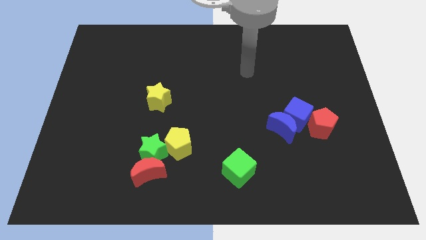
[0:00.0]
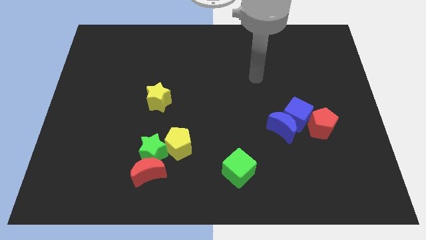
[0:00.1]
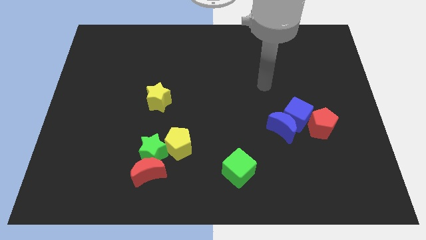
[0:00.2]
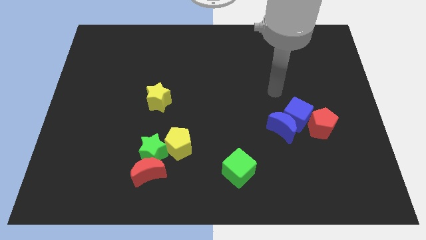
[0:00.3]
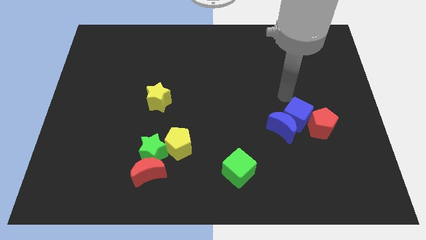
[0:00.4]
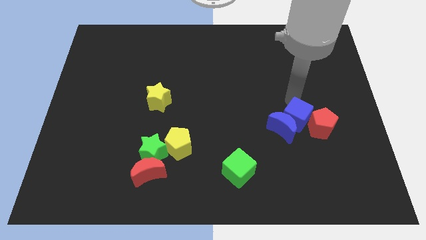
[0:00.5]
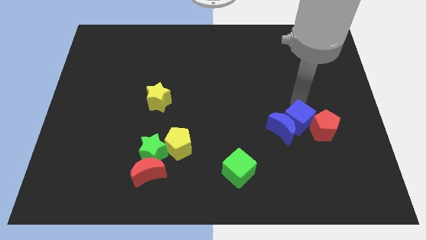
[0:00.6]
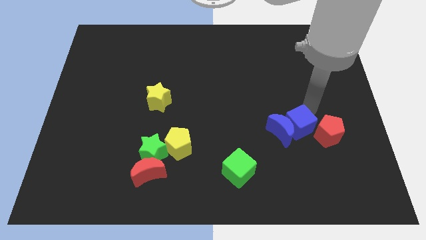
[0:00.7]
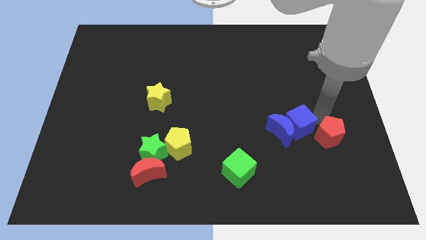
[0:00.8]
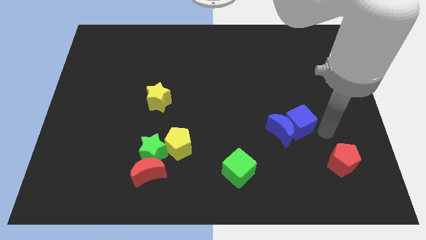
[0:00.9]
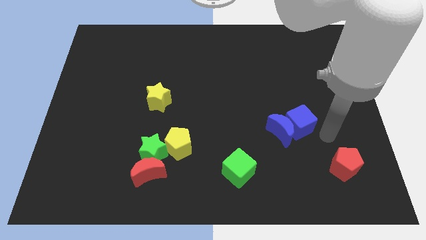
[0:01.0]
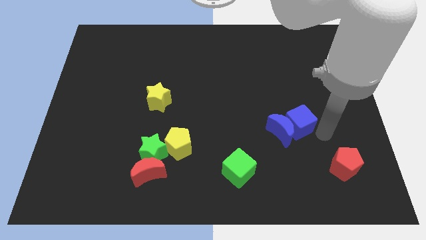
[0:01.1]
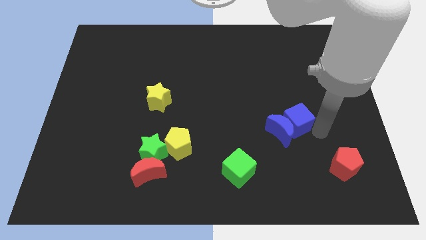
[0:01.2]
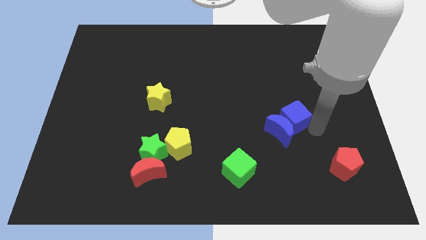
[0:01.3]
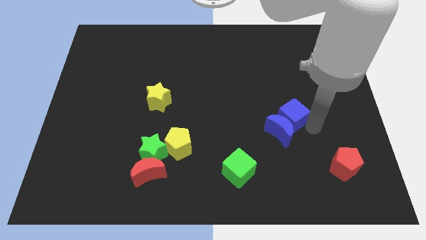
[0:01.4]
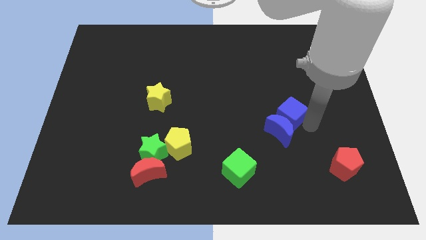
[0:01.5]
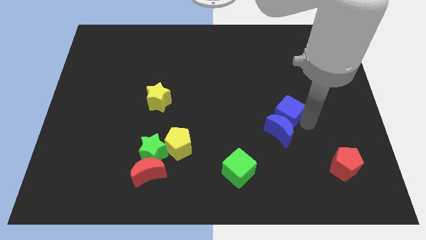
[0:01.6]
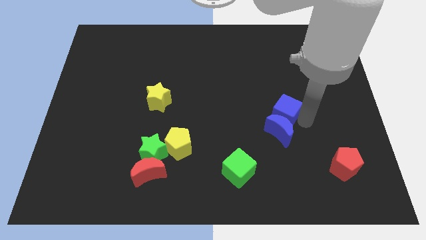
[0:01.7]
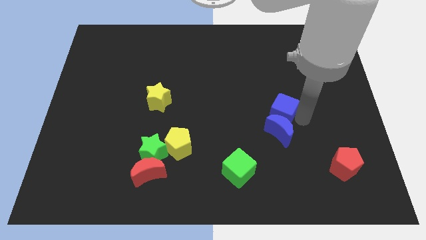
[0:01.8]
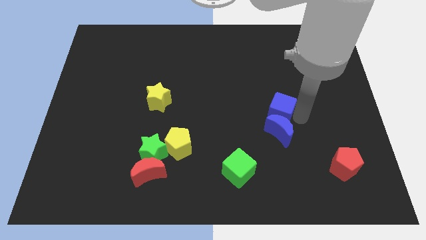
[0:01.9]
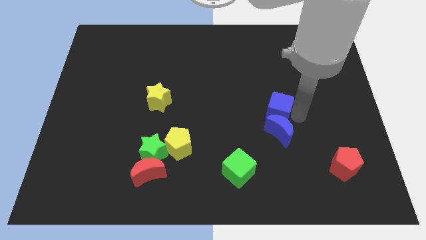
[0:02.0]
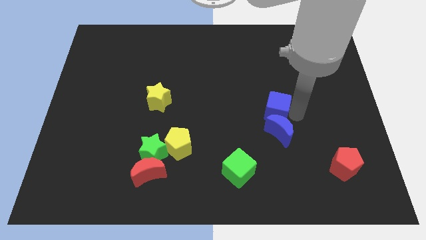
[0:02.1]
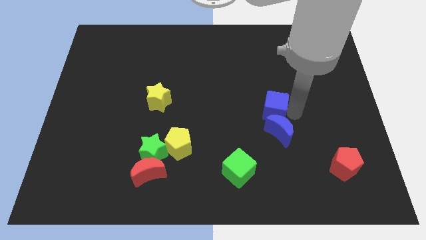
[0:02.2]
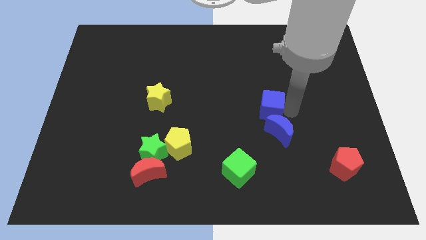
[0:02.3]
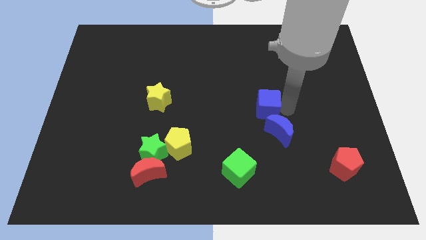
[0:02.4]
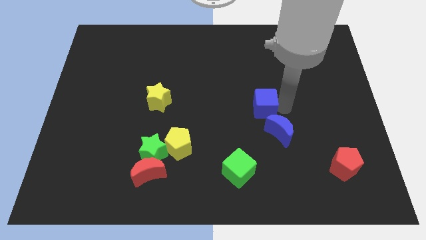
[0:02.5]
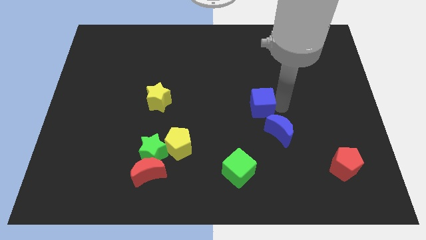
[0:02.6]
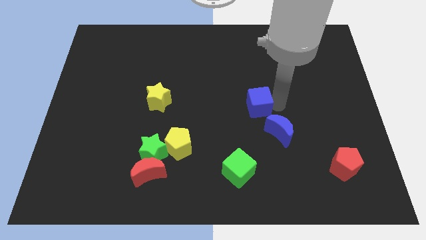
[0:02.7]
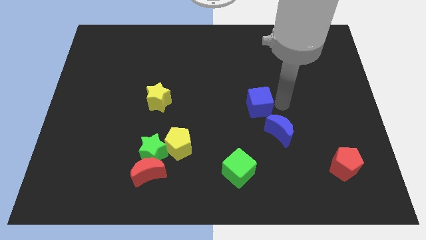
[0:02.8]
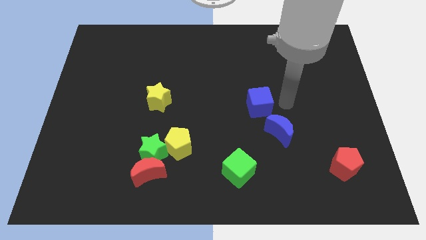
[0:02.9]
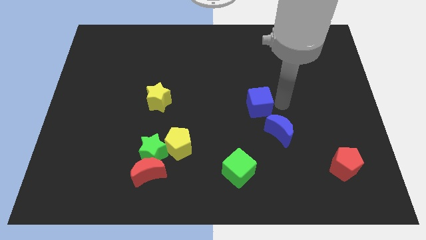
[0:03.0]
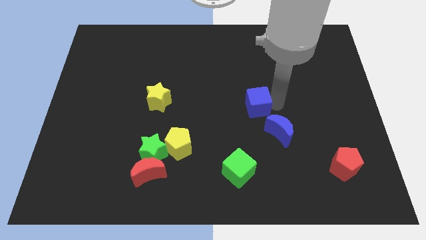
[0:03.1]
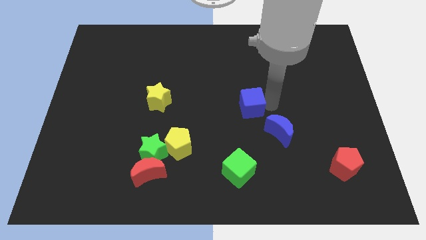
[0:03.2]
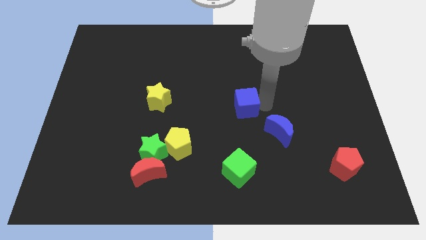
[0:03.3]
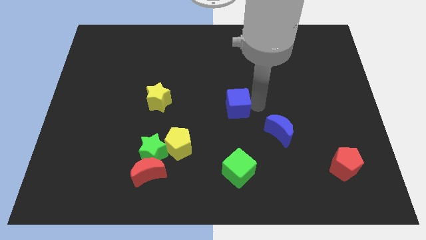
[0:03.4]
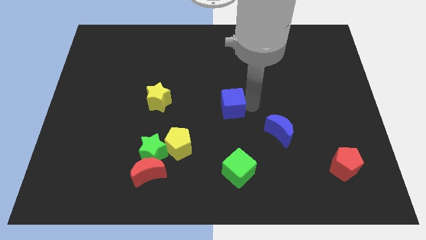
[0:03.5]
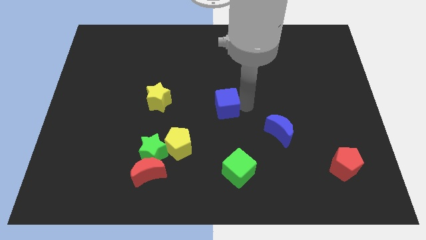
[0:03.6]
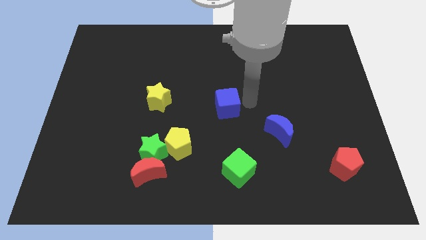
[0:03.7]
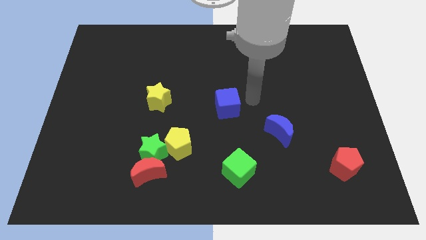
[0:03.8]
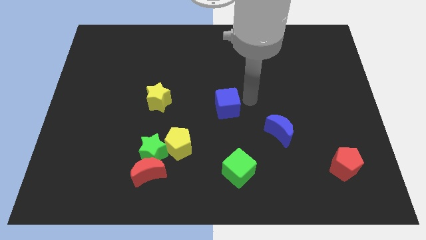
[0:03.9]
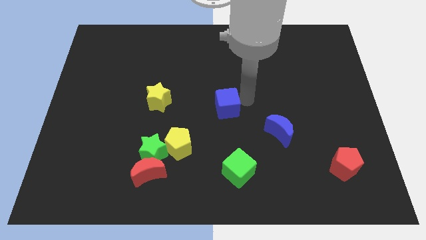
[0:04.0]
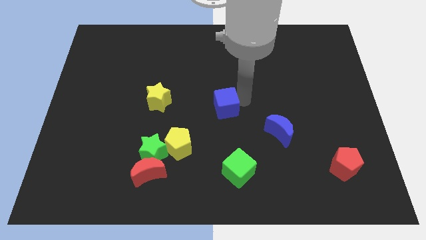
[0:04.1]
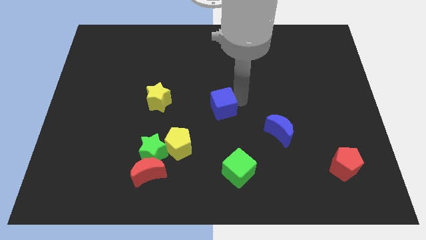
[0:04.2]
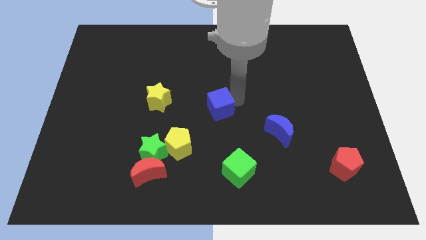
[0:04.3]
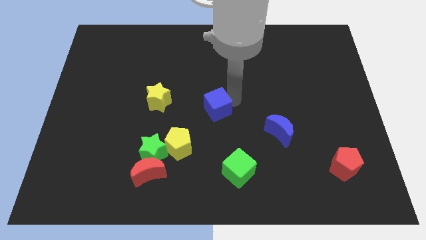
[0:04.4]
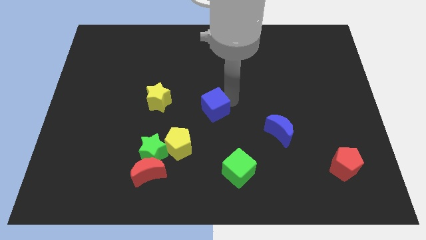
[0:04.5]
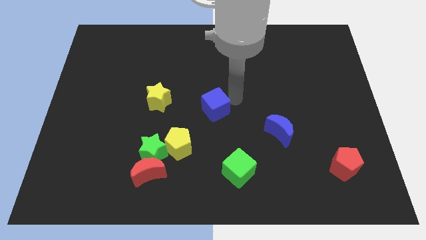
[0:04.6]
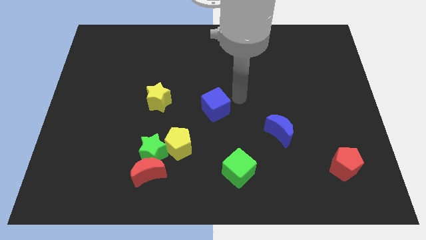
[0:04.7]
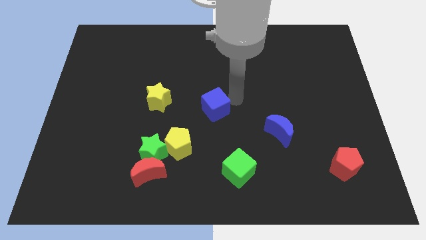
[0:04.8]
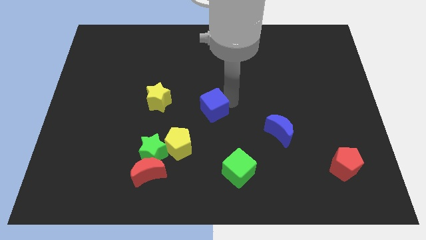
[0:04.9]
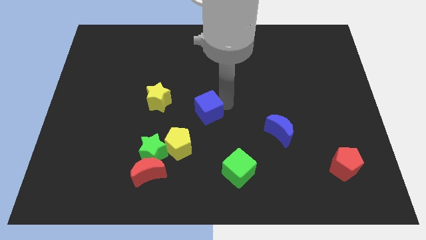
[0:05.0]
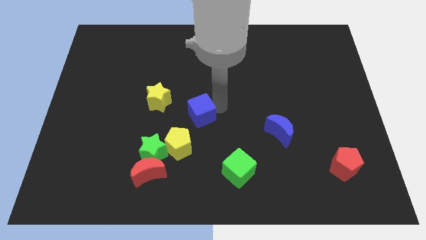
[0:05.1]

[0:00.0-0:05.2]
push the blue cube to the bottom right side of the yellow star

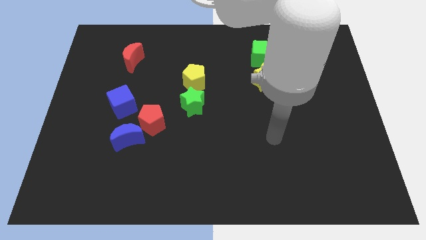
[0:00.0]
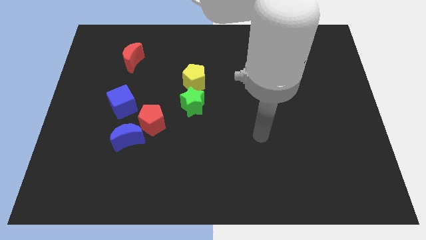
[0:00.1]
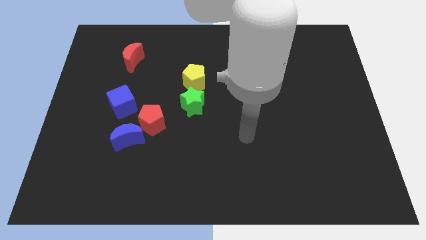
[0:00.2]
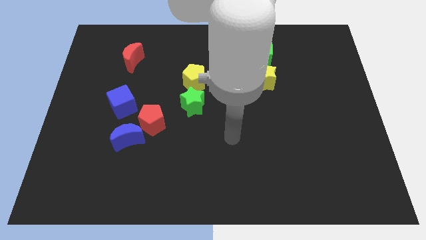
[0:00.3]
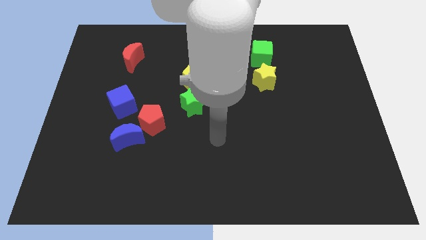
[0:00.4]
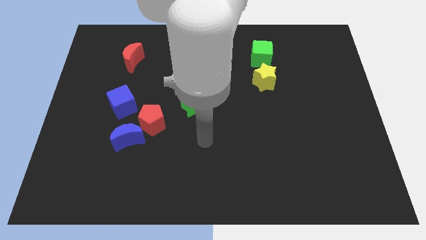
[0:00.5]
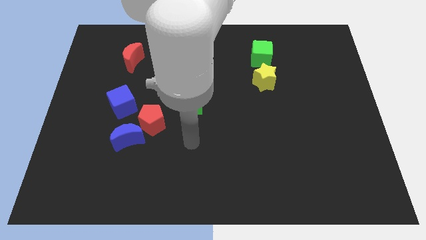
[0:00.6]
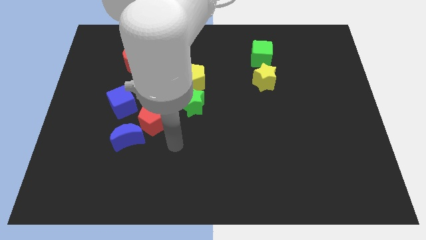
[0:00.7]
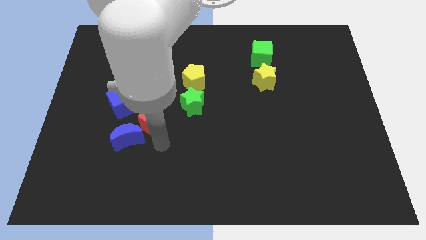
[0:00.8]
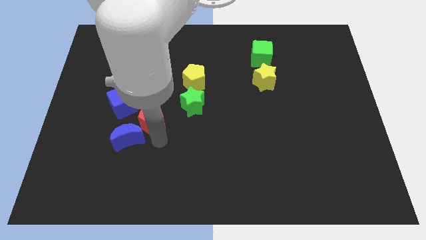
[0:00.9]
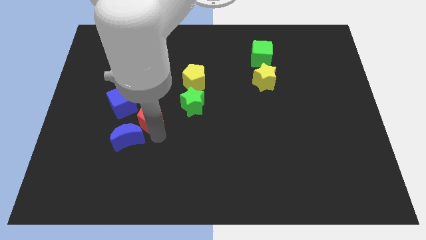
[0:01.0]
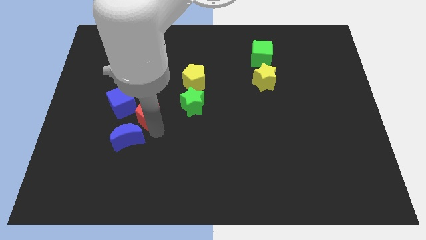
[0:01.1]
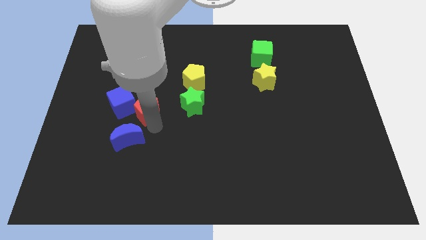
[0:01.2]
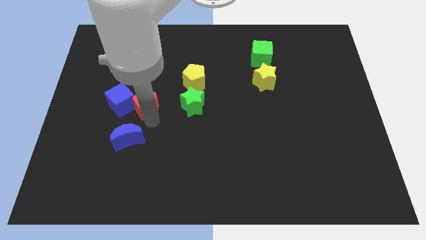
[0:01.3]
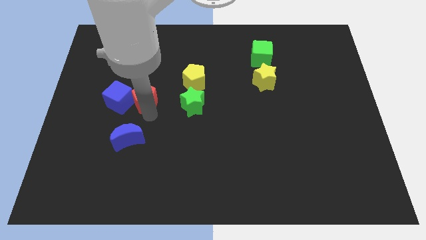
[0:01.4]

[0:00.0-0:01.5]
put the red pentagon to the top right side of the blue cube
